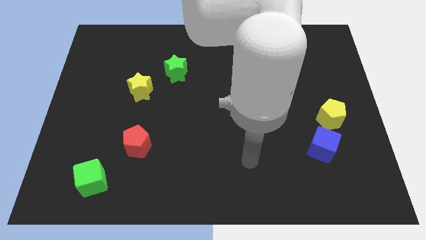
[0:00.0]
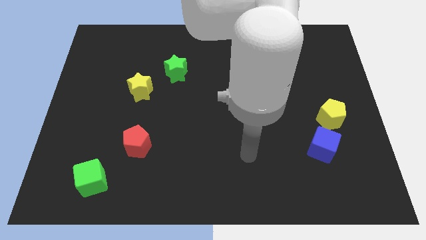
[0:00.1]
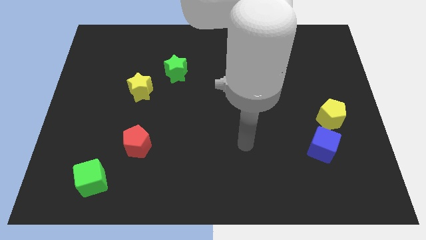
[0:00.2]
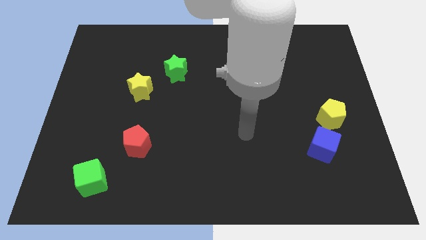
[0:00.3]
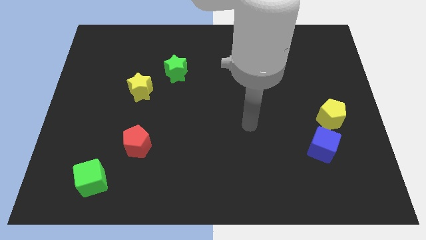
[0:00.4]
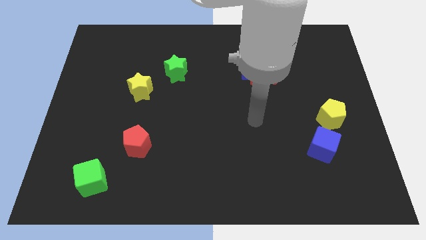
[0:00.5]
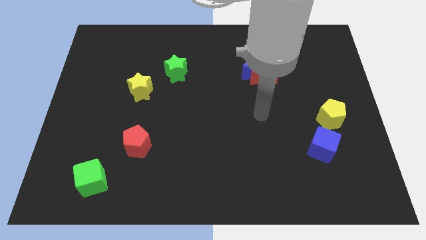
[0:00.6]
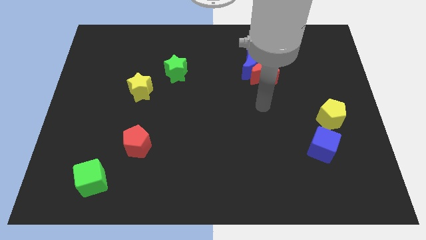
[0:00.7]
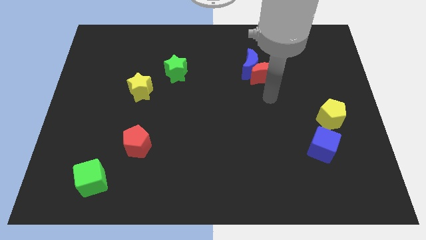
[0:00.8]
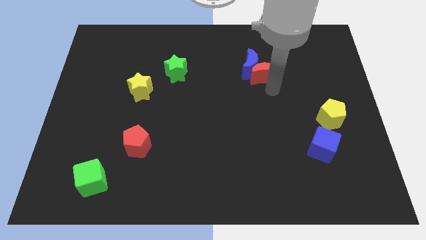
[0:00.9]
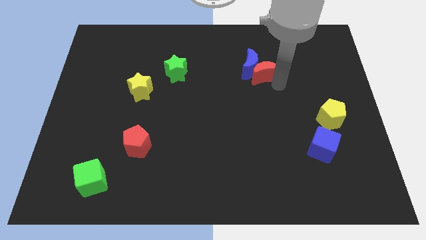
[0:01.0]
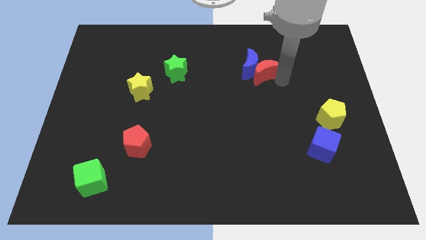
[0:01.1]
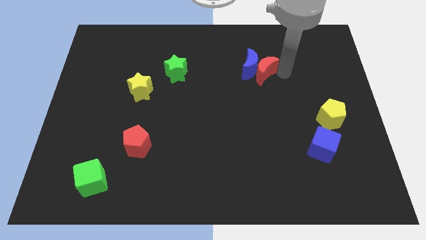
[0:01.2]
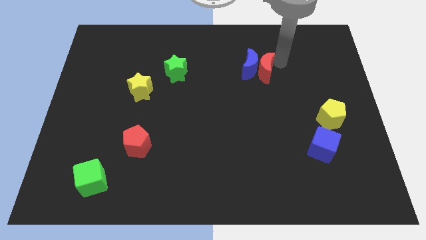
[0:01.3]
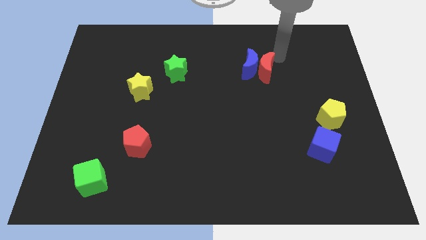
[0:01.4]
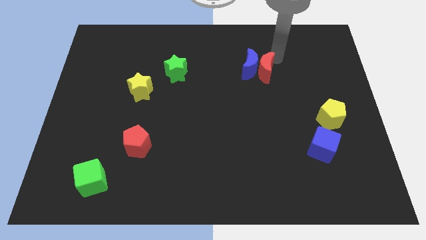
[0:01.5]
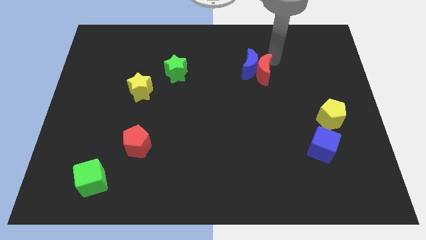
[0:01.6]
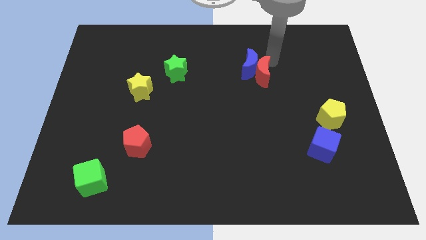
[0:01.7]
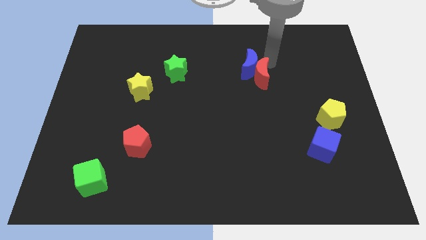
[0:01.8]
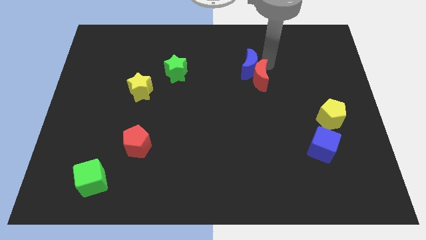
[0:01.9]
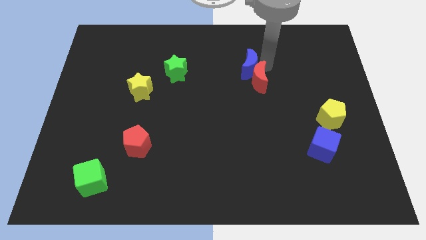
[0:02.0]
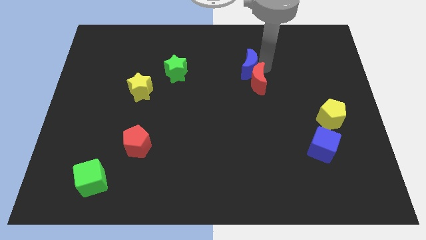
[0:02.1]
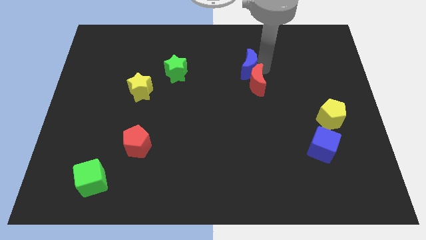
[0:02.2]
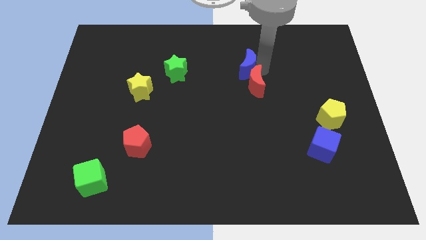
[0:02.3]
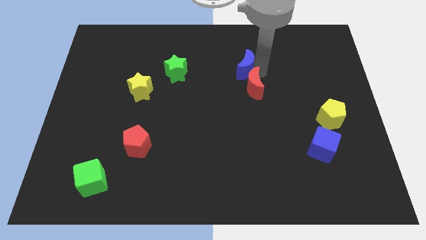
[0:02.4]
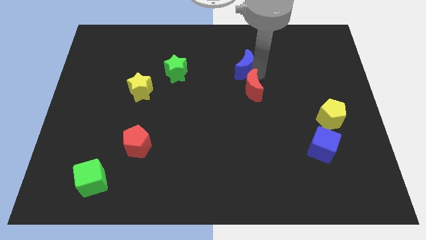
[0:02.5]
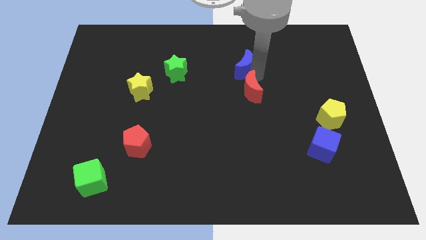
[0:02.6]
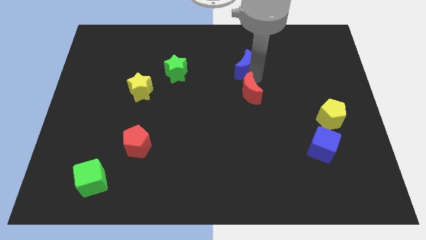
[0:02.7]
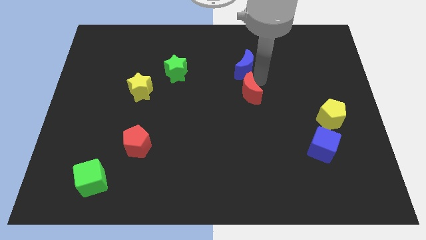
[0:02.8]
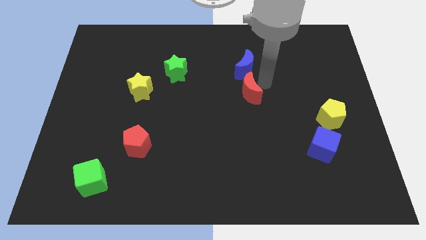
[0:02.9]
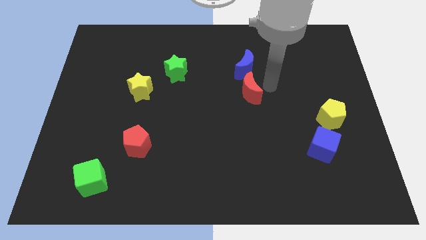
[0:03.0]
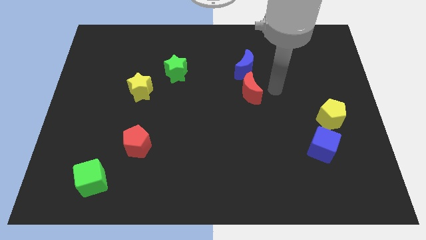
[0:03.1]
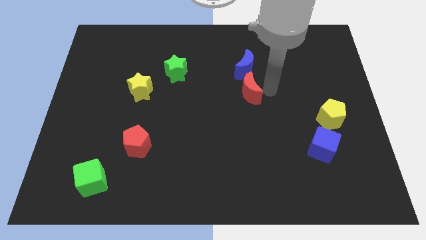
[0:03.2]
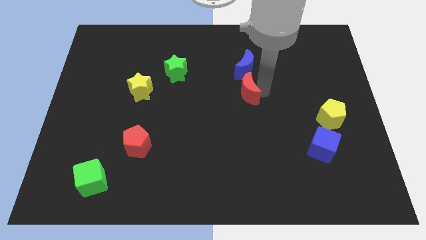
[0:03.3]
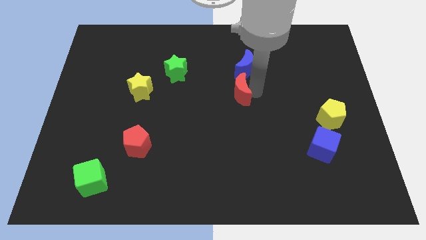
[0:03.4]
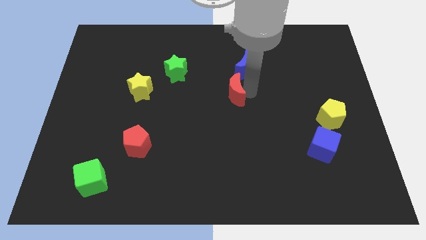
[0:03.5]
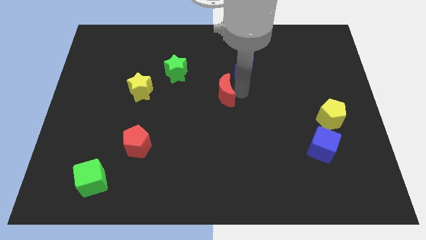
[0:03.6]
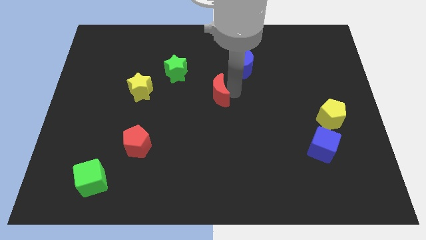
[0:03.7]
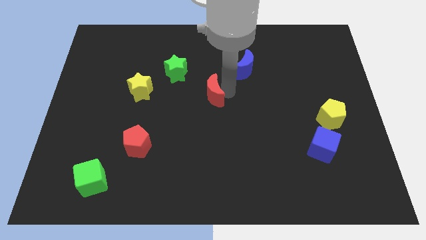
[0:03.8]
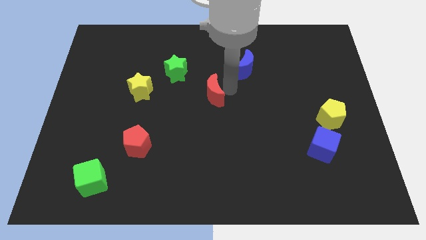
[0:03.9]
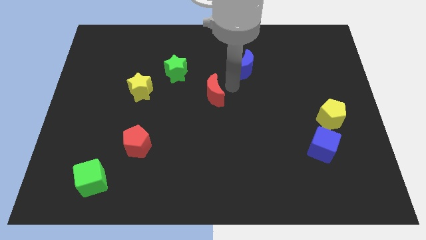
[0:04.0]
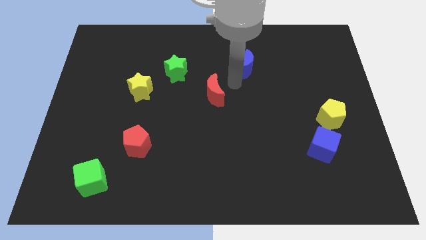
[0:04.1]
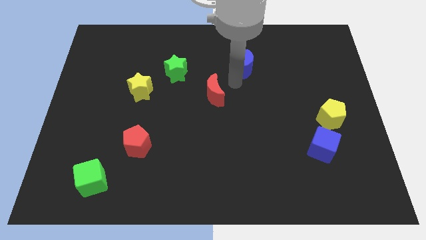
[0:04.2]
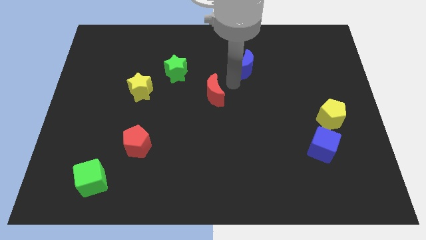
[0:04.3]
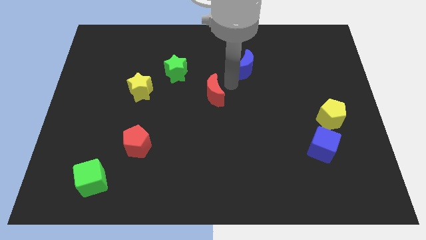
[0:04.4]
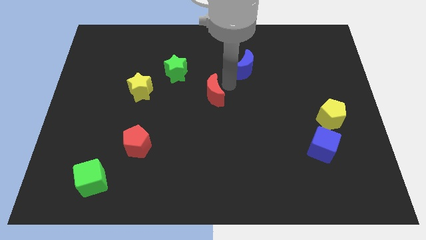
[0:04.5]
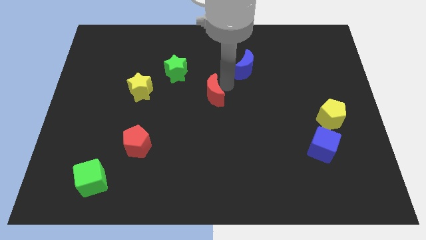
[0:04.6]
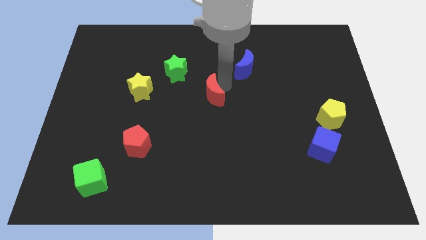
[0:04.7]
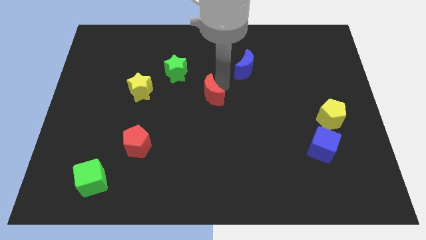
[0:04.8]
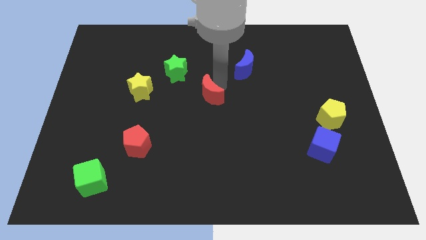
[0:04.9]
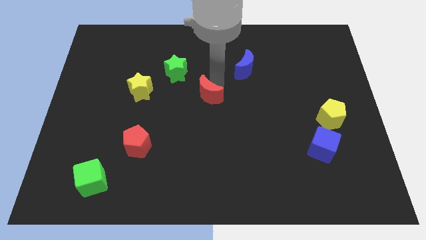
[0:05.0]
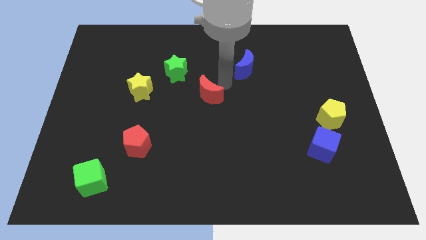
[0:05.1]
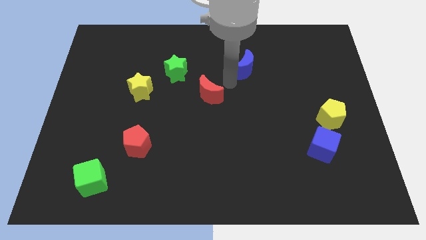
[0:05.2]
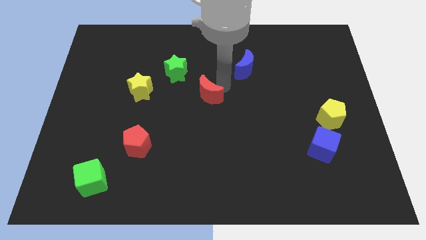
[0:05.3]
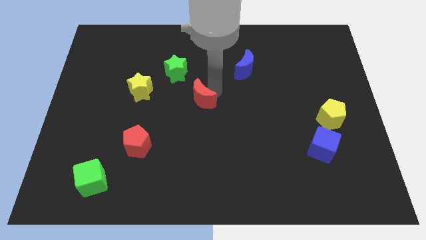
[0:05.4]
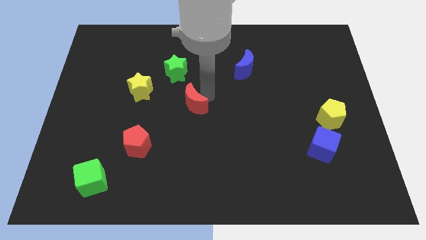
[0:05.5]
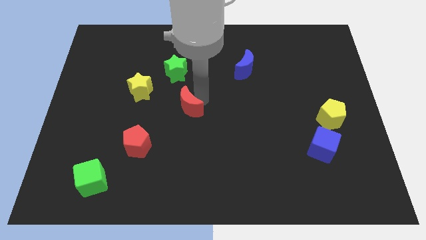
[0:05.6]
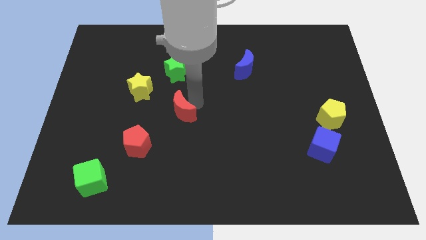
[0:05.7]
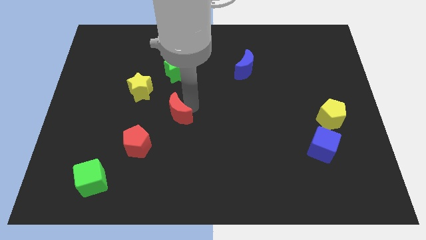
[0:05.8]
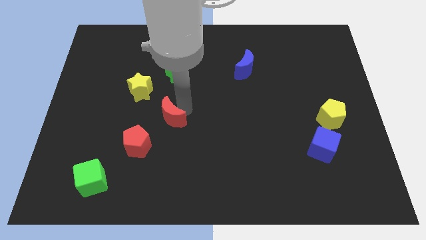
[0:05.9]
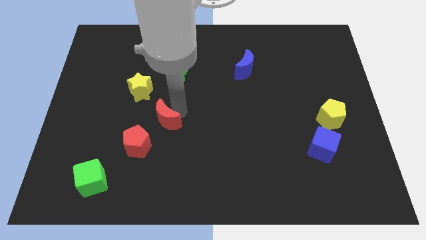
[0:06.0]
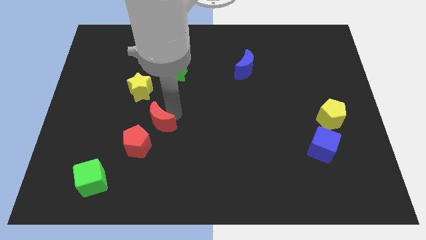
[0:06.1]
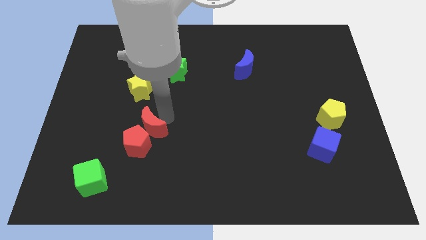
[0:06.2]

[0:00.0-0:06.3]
put the red moon towards the red pentagon
